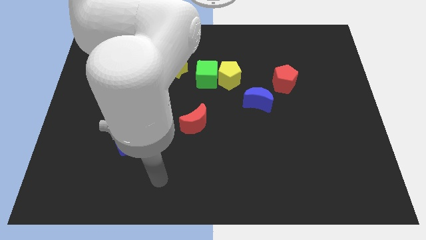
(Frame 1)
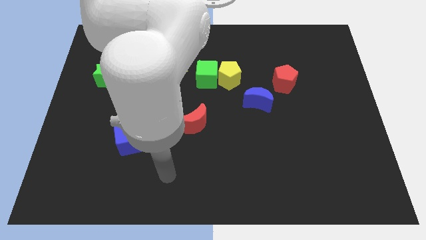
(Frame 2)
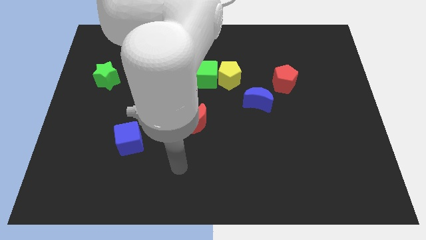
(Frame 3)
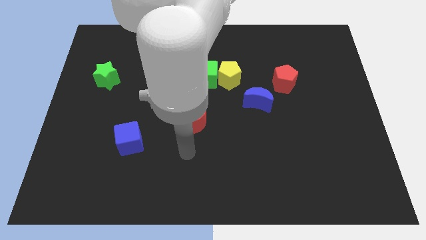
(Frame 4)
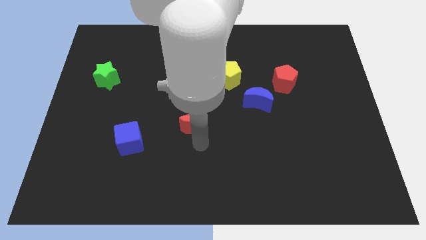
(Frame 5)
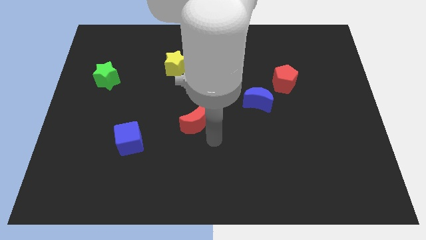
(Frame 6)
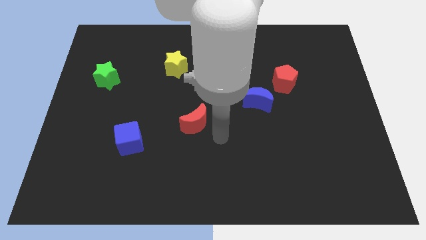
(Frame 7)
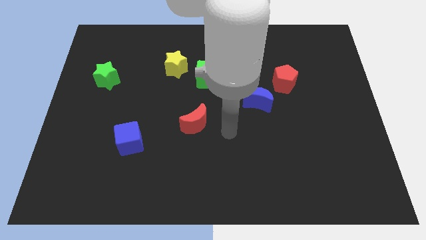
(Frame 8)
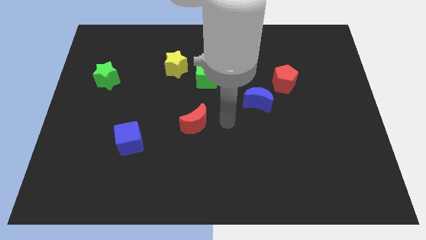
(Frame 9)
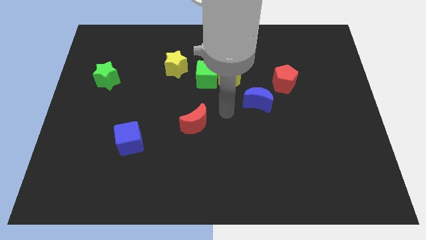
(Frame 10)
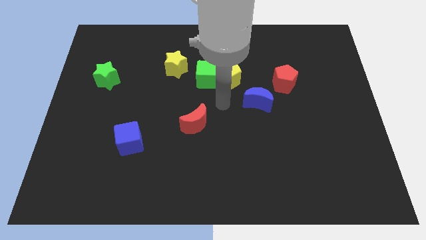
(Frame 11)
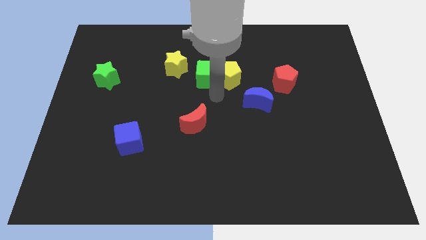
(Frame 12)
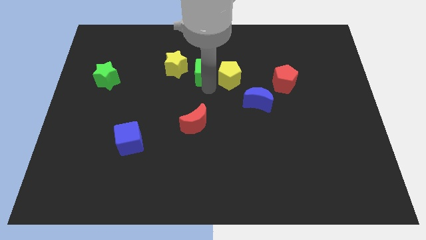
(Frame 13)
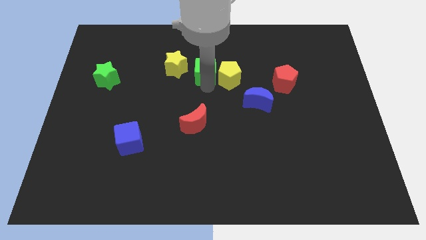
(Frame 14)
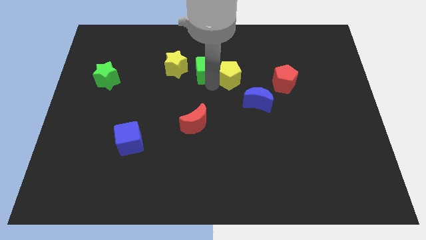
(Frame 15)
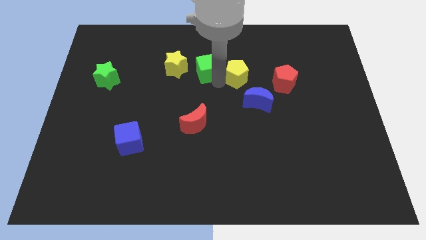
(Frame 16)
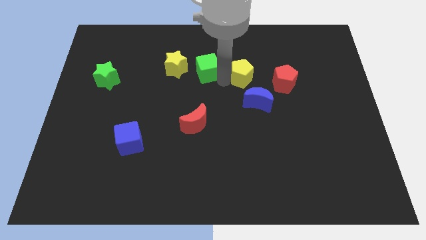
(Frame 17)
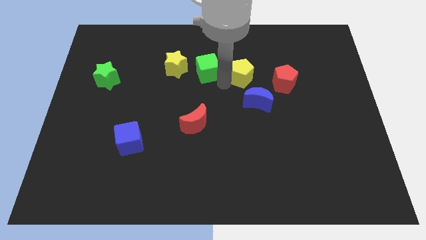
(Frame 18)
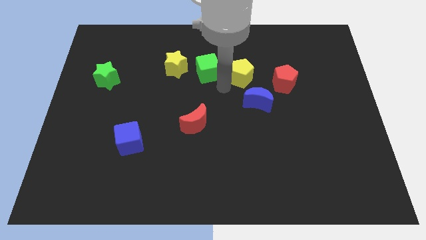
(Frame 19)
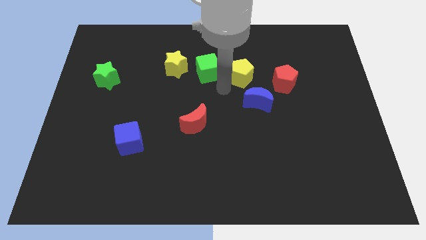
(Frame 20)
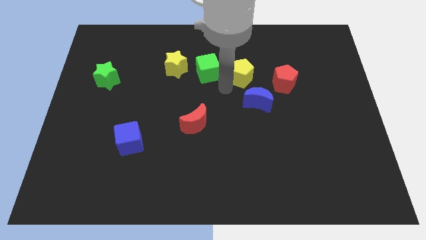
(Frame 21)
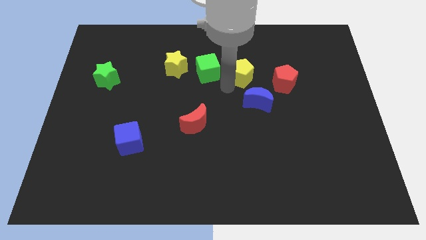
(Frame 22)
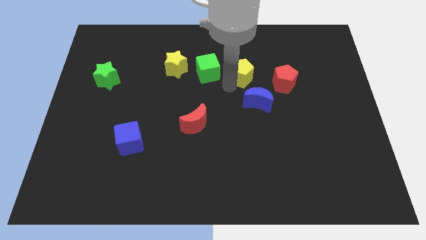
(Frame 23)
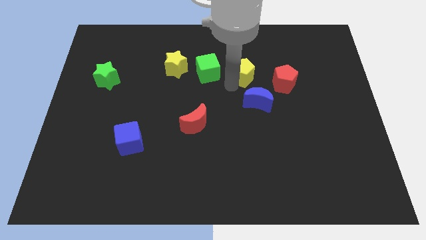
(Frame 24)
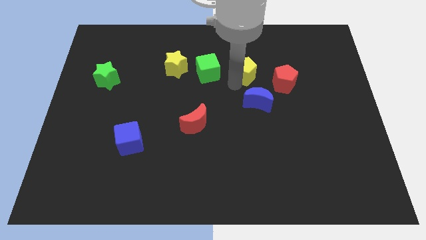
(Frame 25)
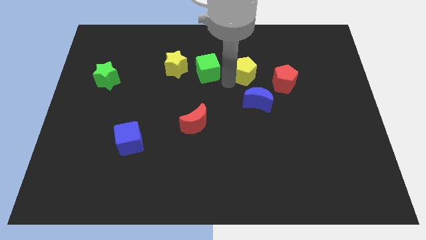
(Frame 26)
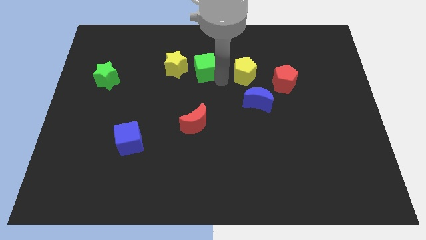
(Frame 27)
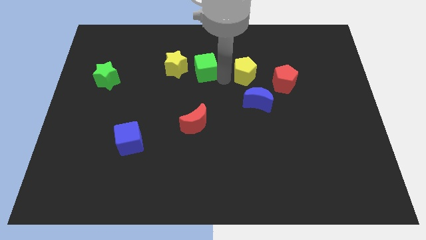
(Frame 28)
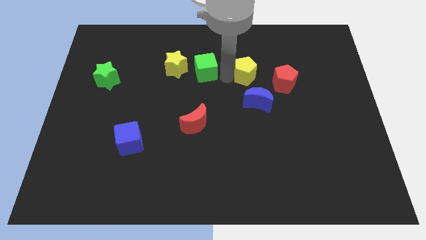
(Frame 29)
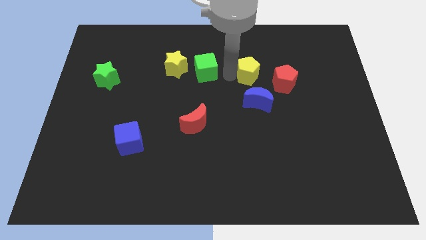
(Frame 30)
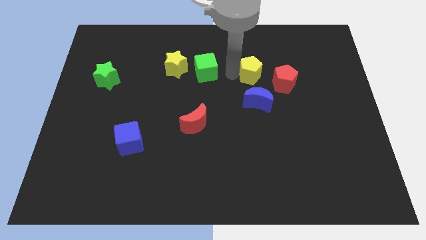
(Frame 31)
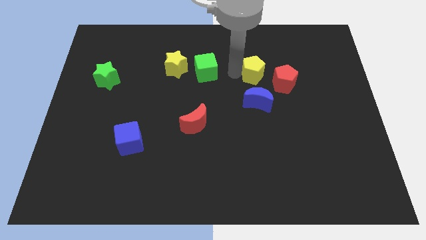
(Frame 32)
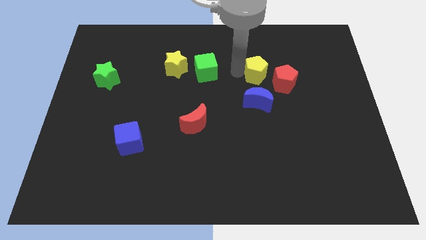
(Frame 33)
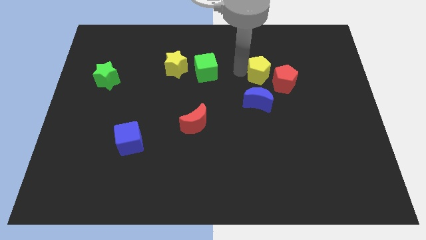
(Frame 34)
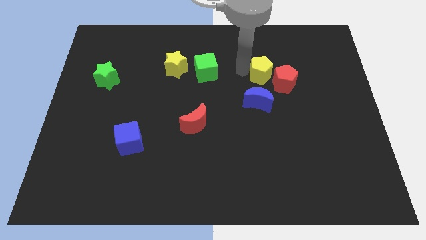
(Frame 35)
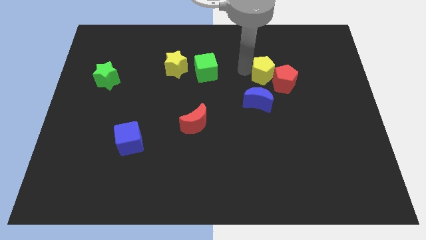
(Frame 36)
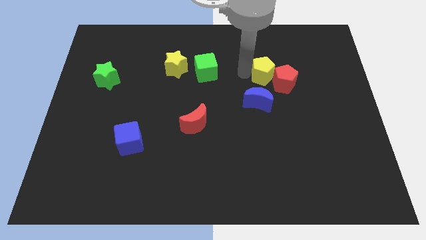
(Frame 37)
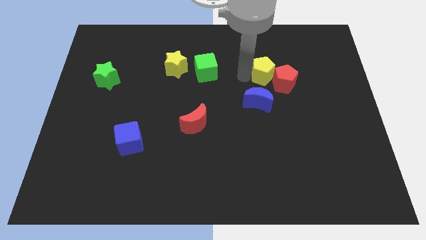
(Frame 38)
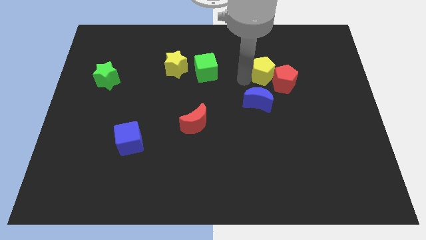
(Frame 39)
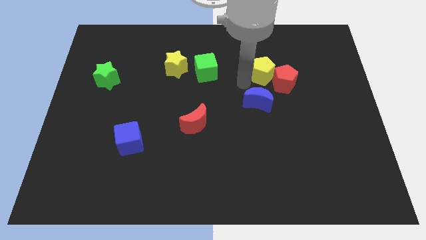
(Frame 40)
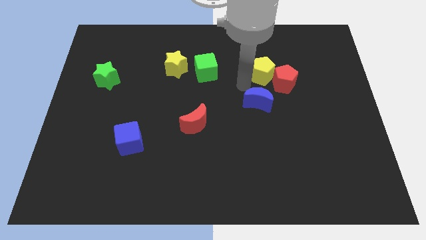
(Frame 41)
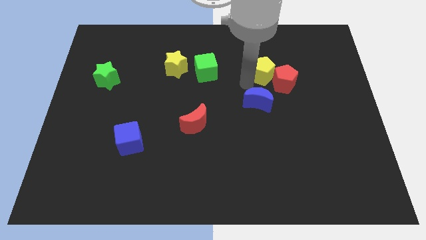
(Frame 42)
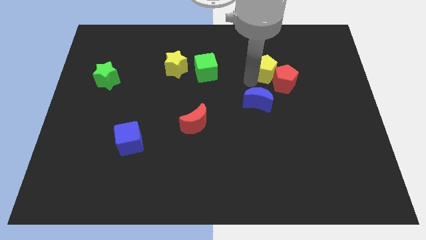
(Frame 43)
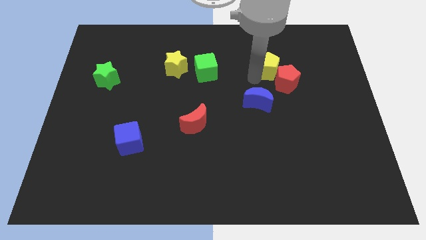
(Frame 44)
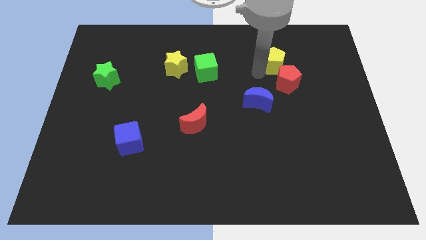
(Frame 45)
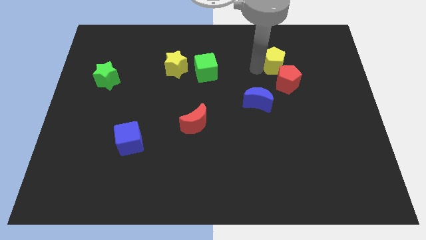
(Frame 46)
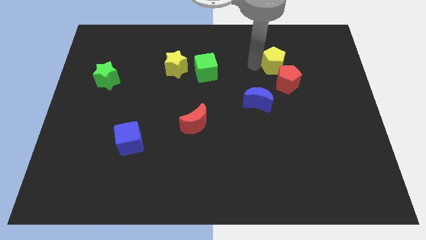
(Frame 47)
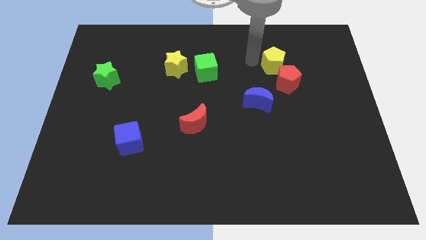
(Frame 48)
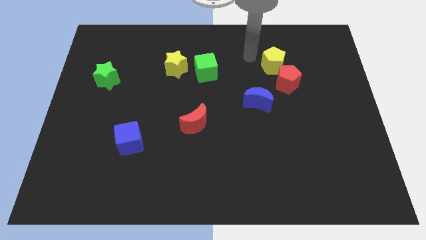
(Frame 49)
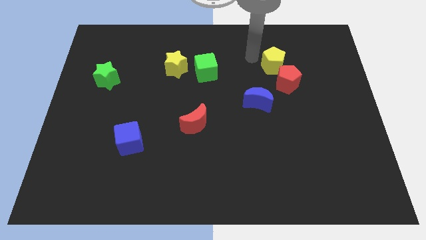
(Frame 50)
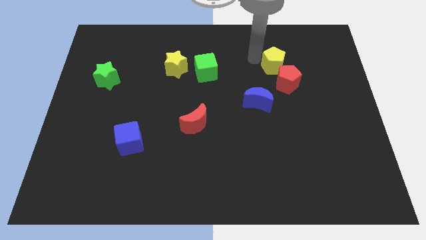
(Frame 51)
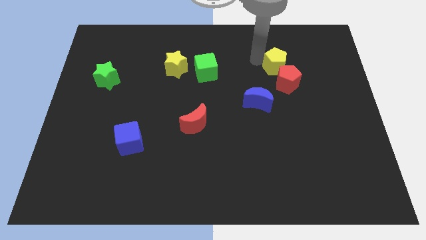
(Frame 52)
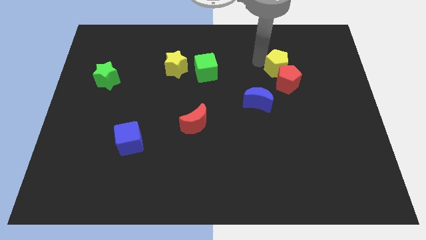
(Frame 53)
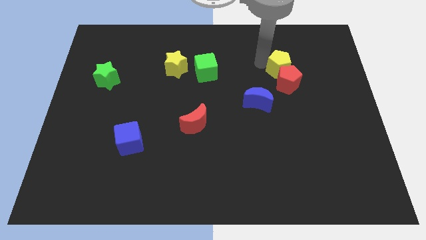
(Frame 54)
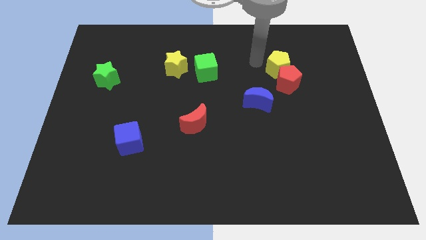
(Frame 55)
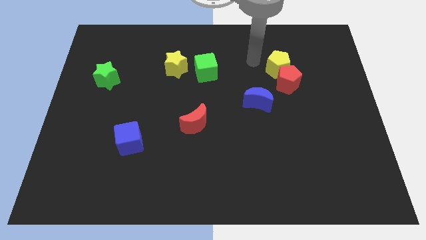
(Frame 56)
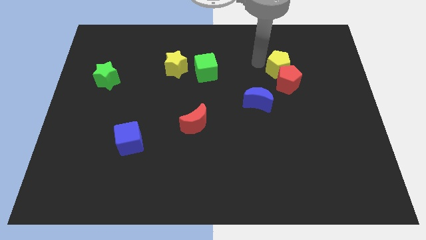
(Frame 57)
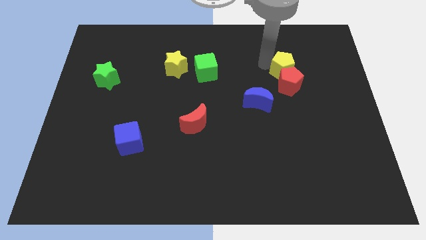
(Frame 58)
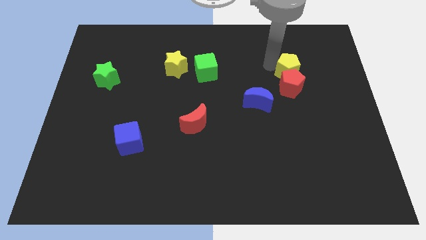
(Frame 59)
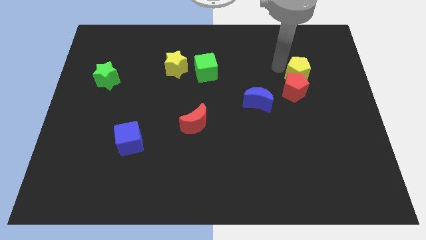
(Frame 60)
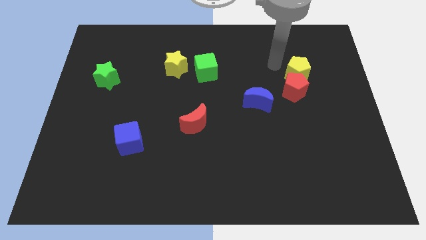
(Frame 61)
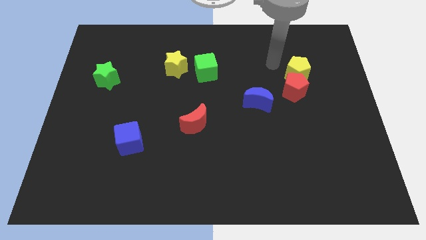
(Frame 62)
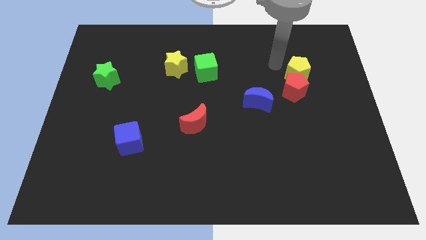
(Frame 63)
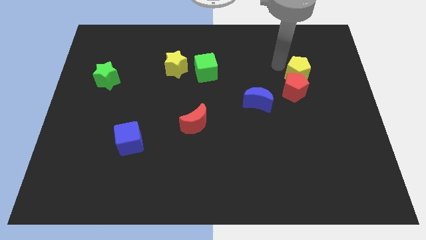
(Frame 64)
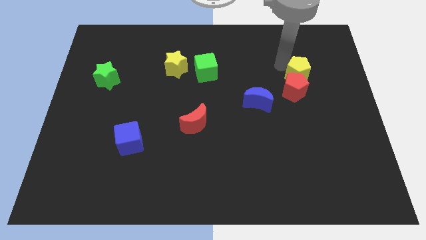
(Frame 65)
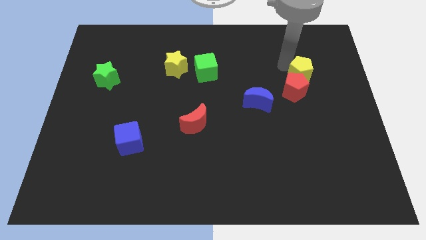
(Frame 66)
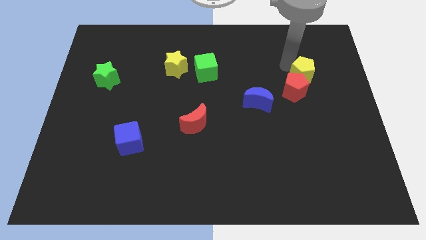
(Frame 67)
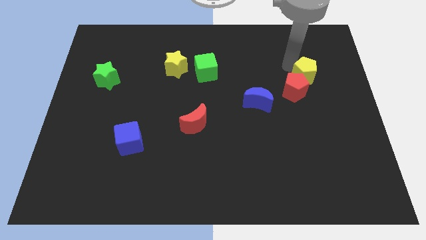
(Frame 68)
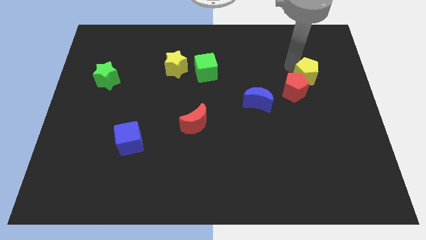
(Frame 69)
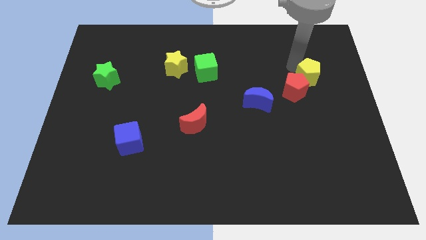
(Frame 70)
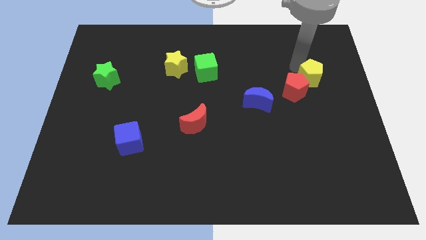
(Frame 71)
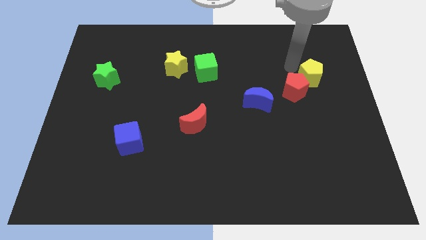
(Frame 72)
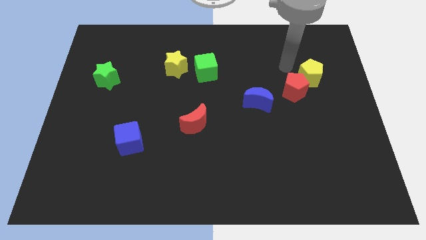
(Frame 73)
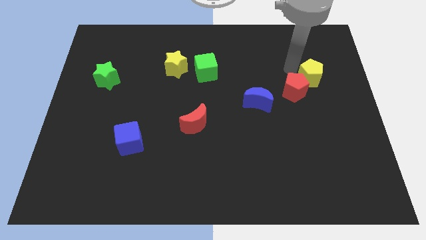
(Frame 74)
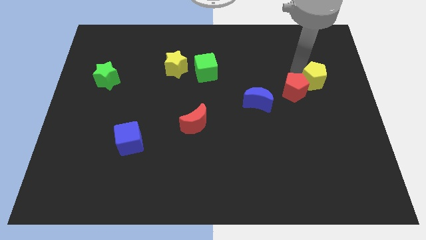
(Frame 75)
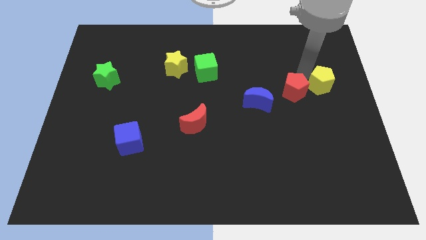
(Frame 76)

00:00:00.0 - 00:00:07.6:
slide the yellow pentagon to the right side
